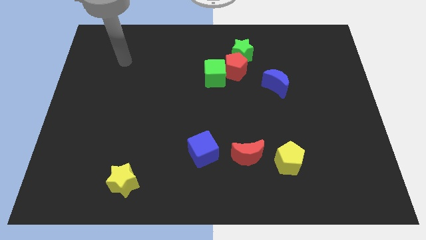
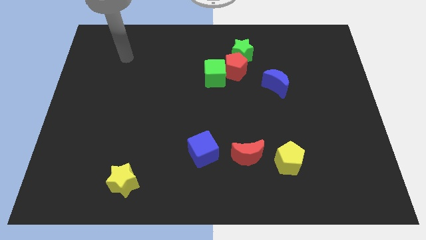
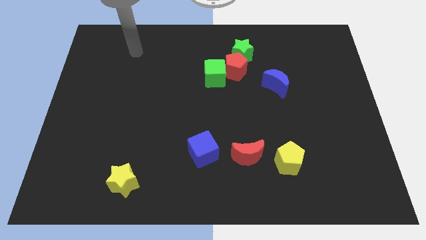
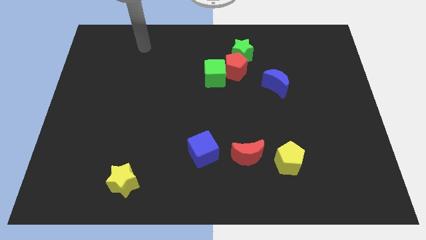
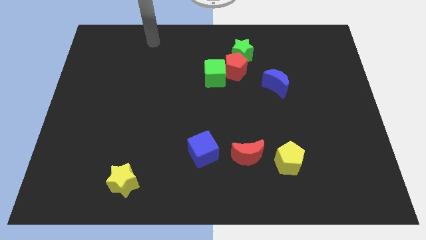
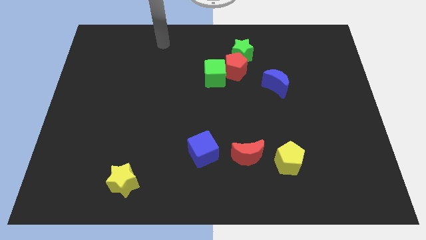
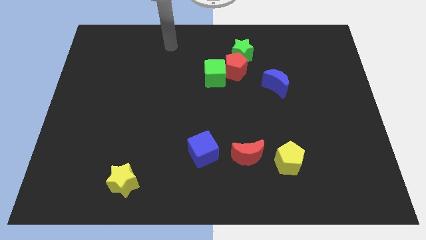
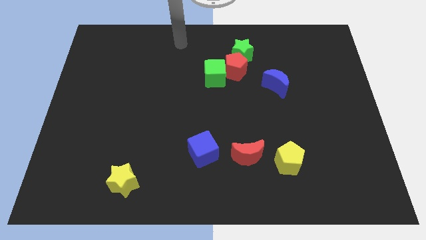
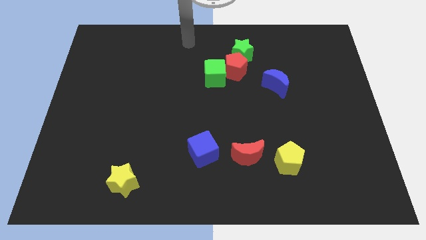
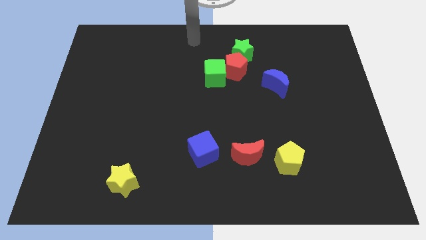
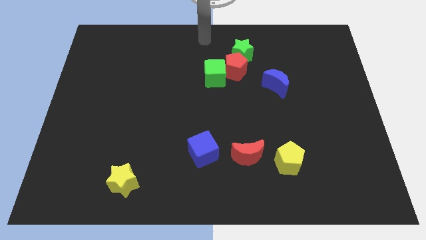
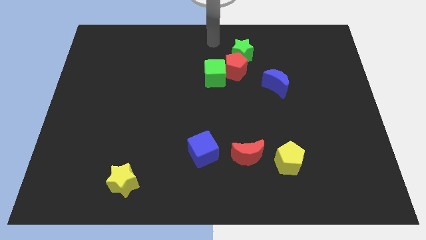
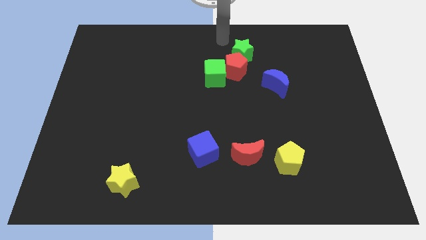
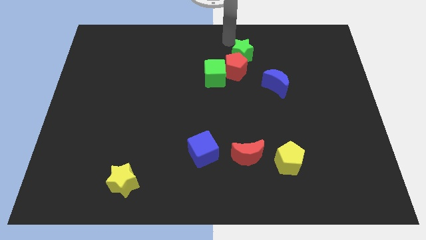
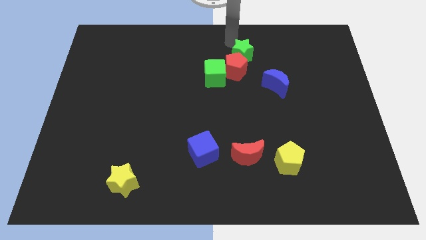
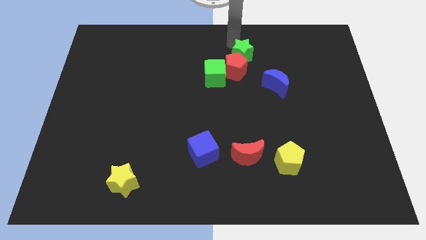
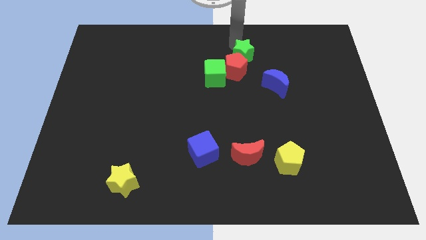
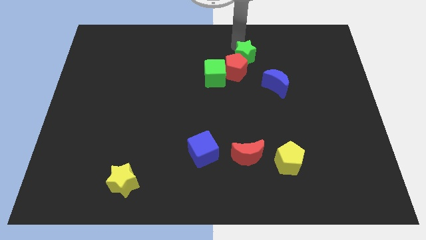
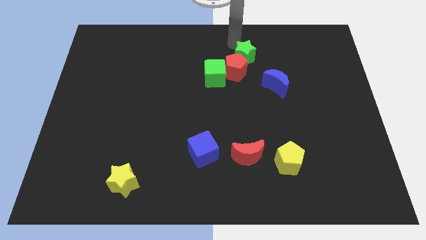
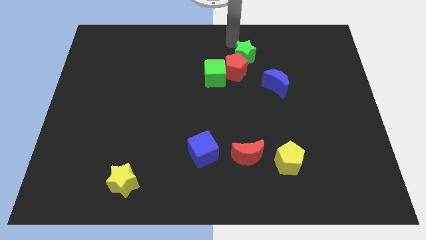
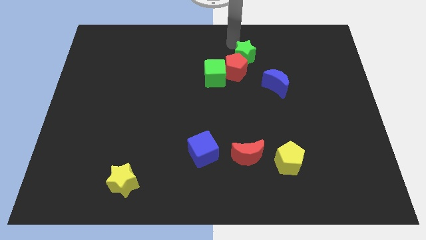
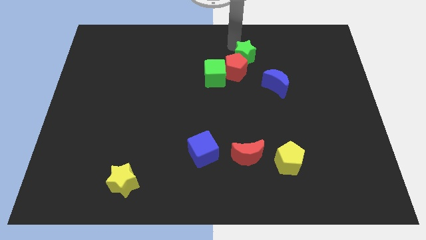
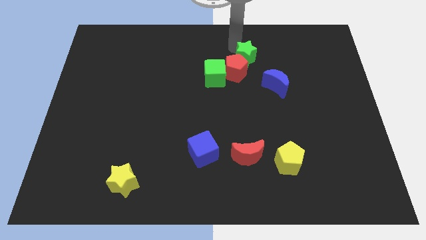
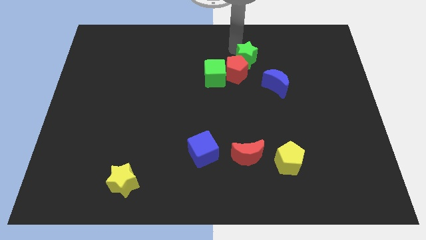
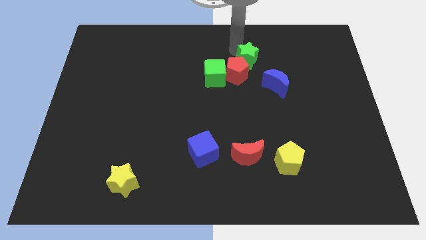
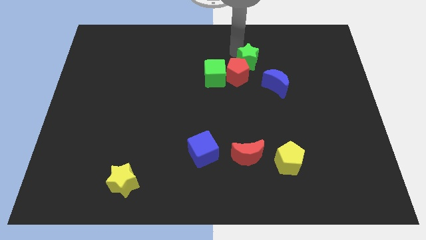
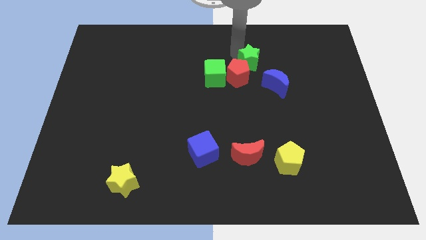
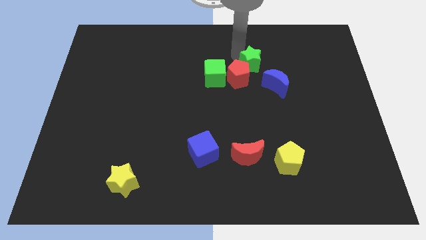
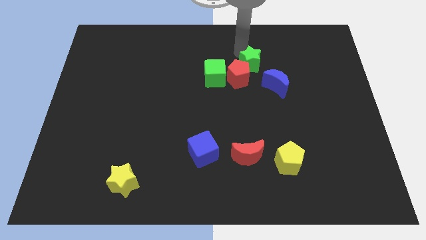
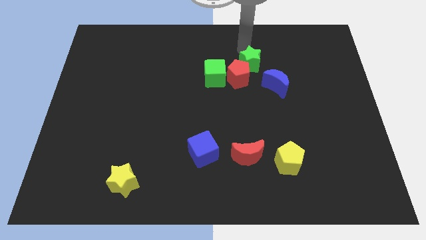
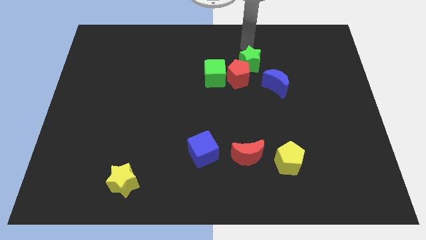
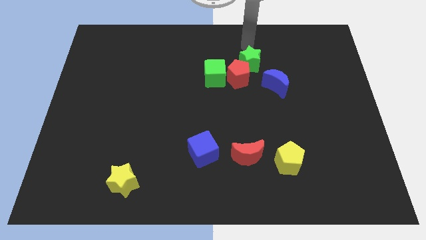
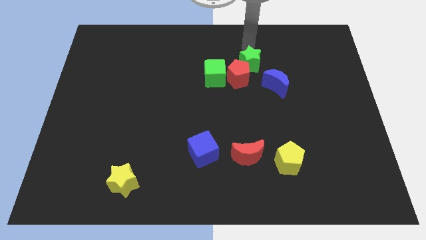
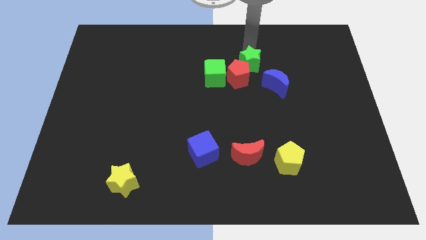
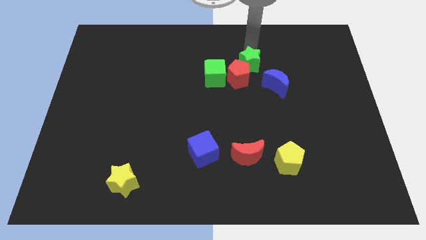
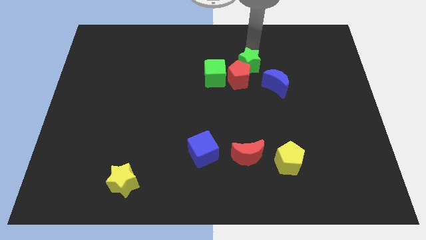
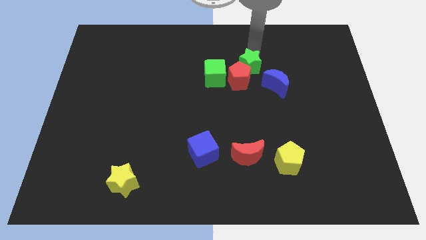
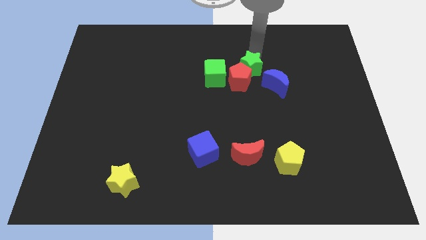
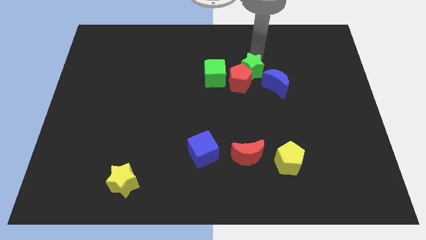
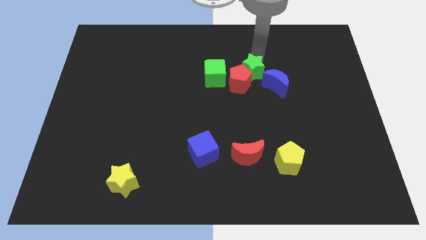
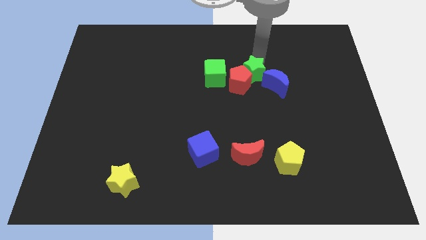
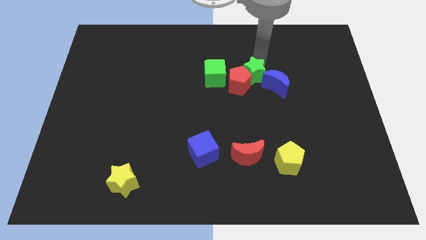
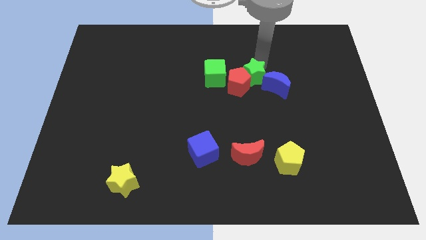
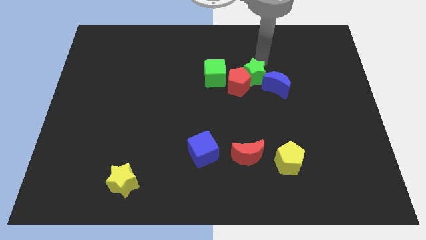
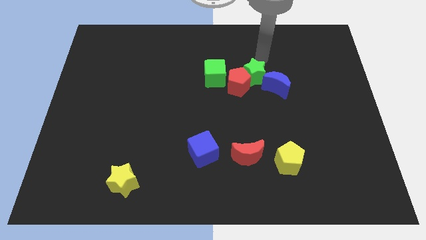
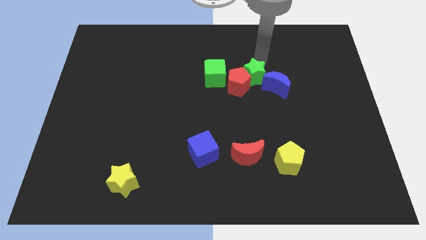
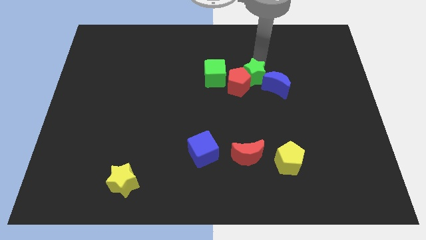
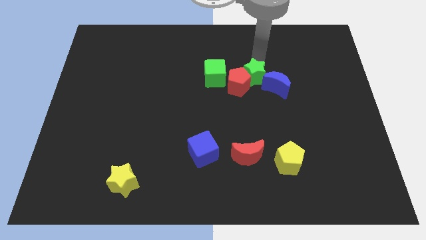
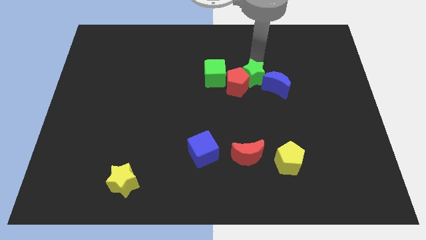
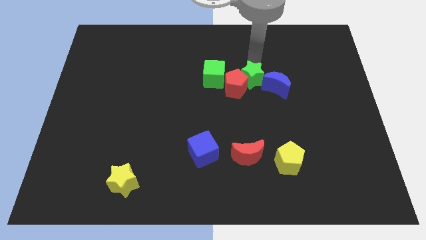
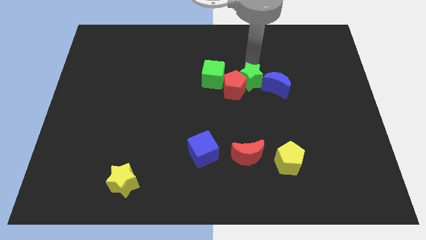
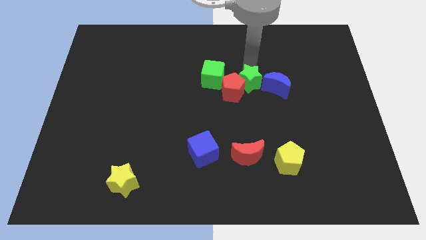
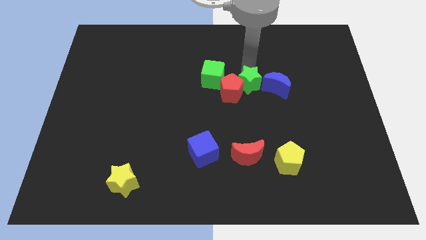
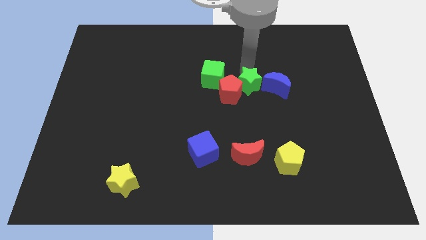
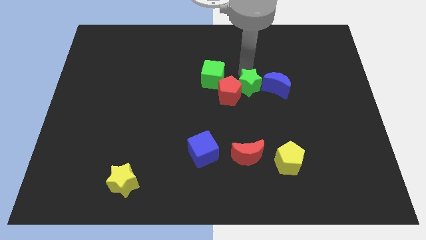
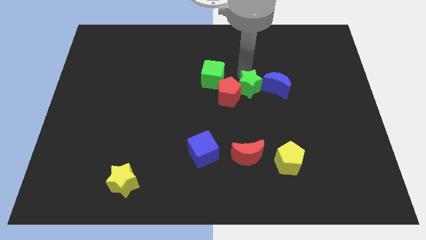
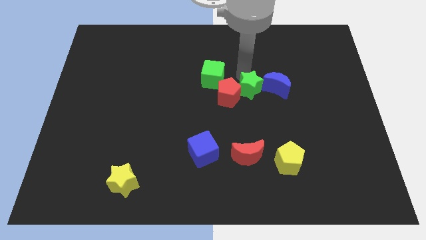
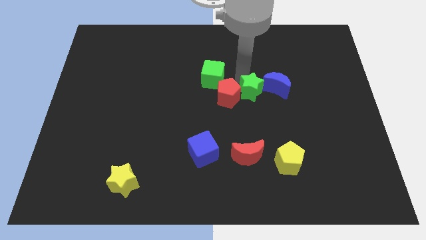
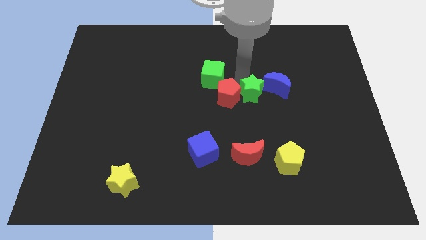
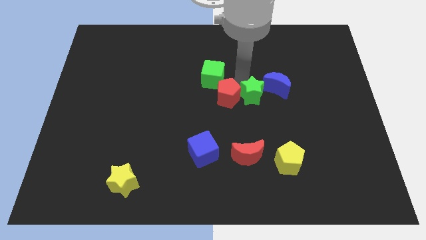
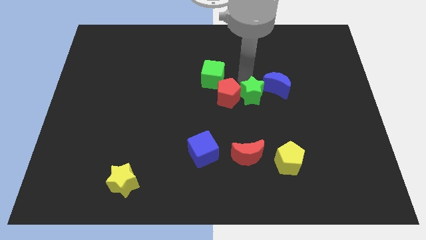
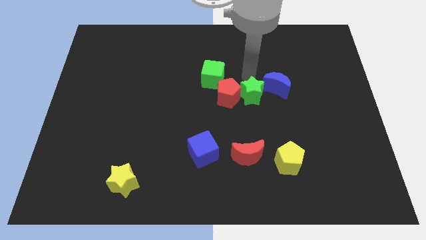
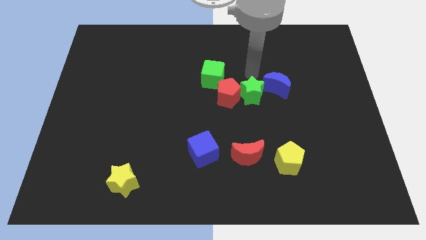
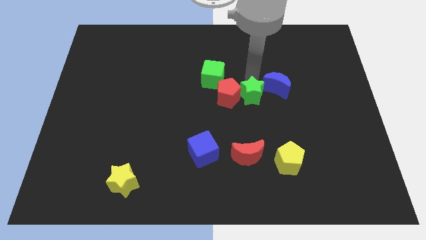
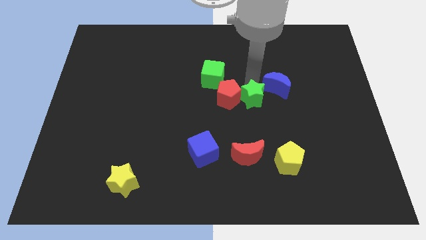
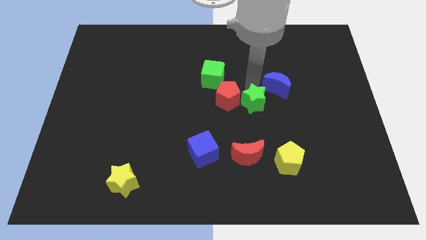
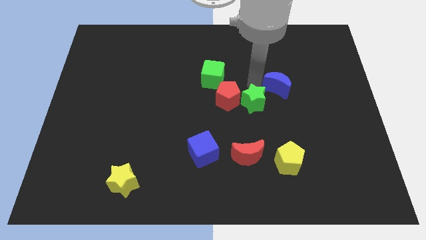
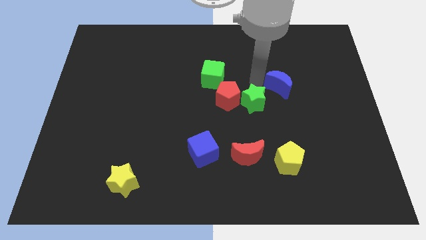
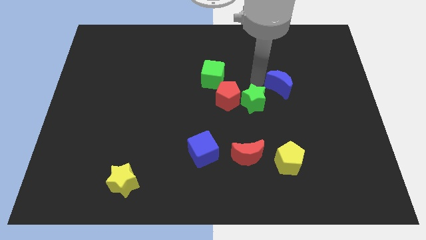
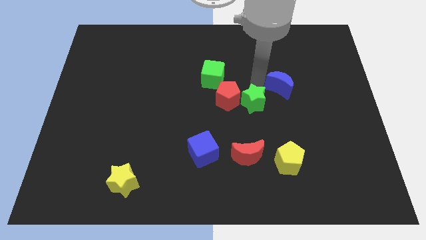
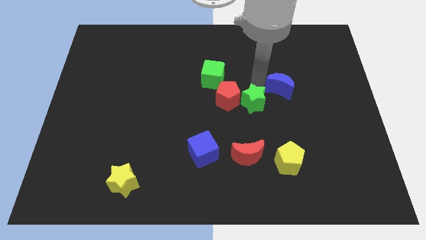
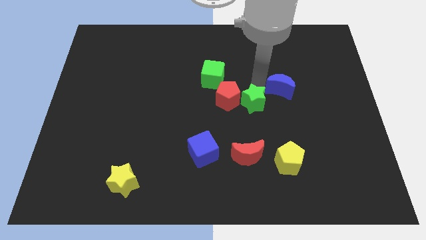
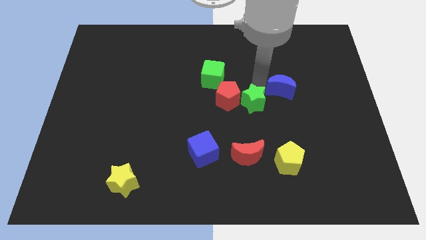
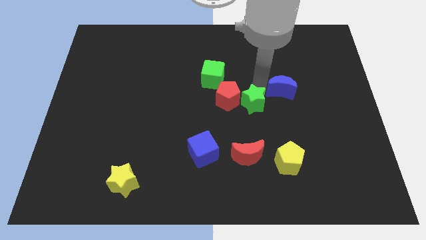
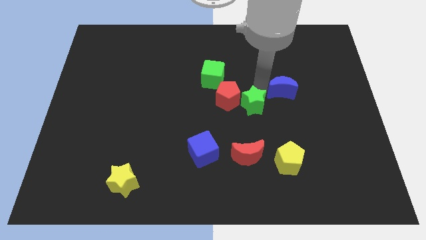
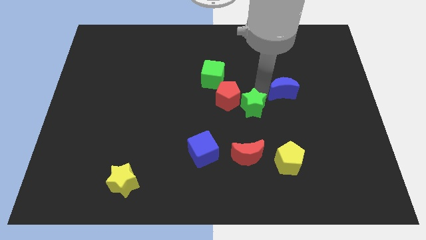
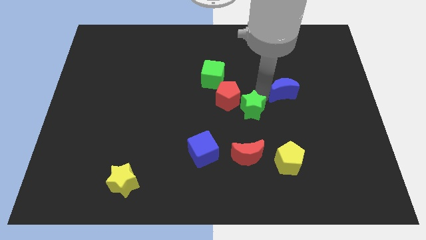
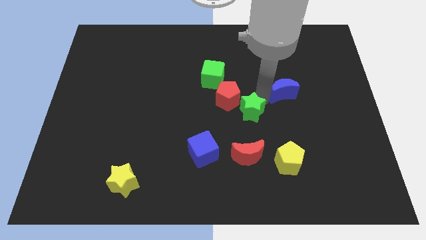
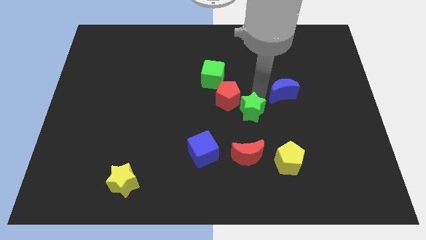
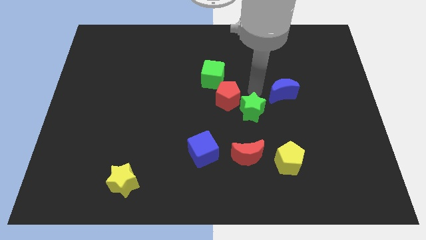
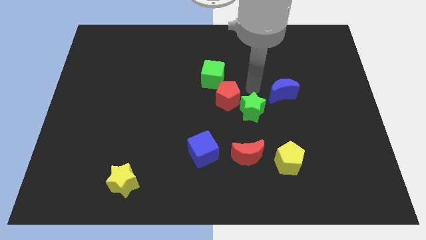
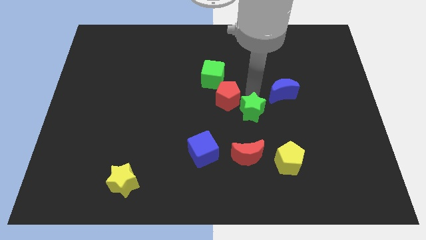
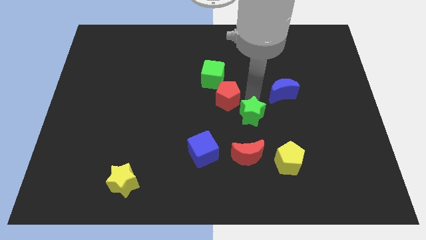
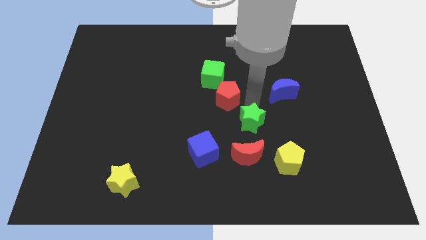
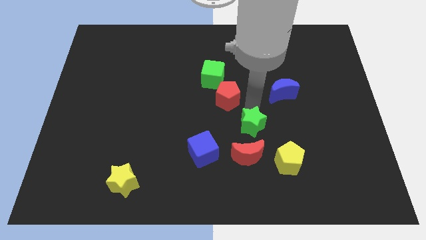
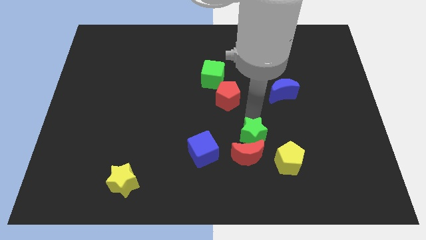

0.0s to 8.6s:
slide the green star towards the red moon
